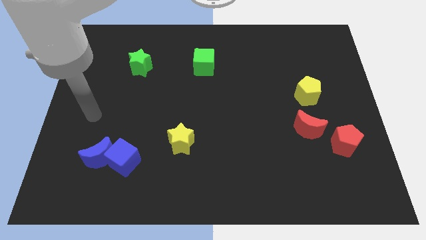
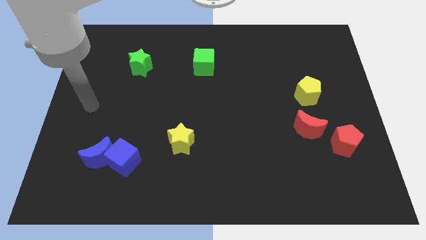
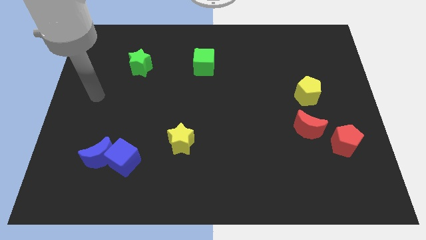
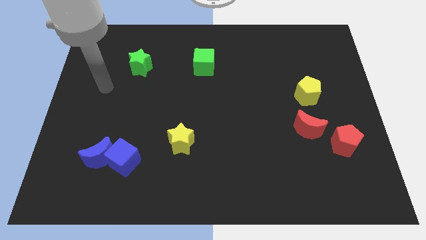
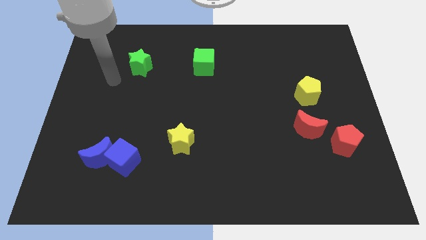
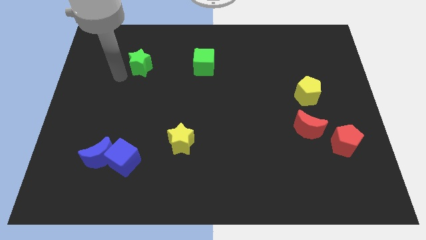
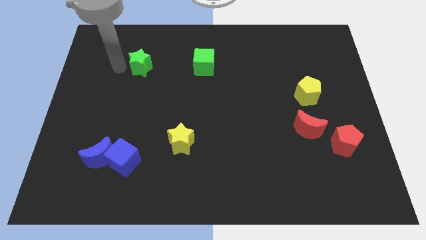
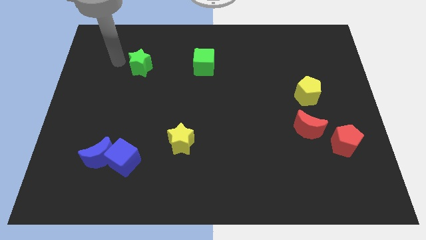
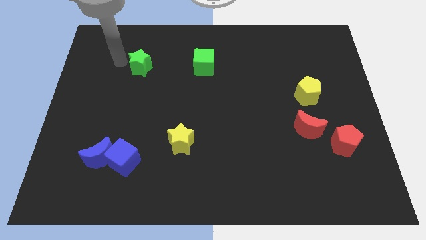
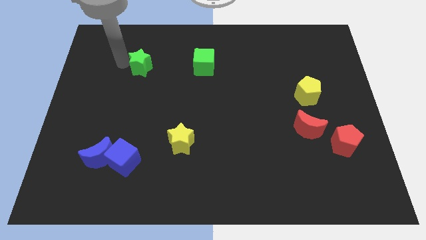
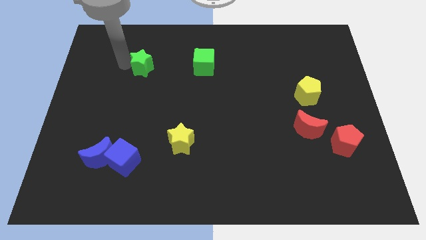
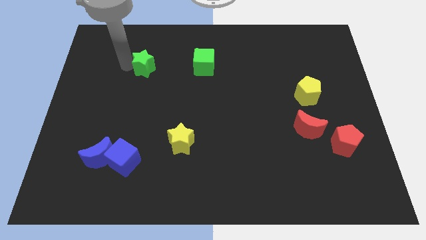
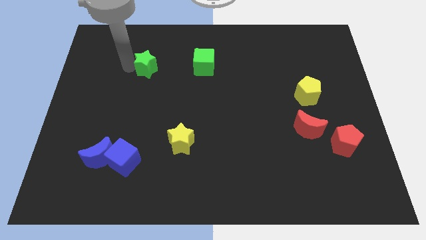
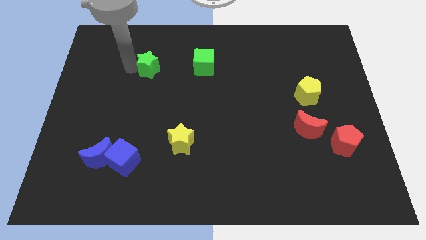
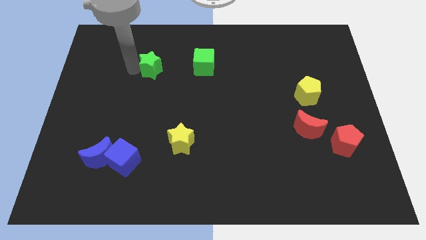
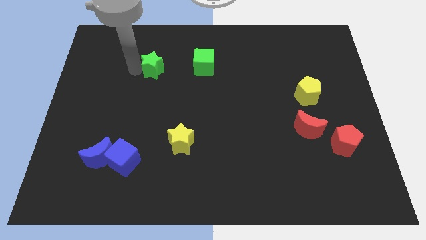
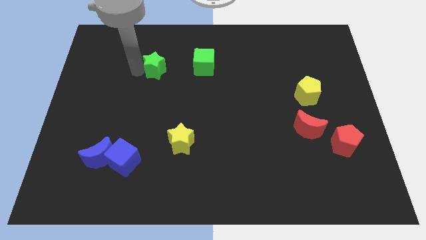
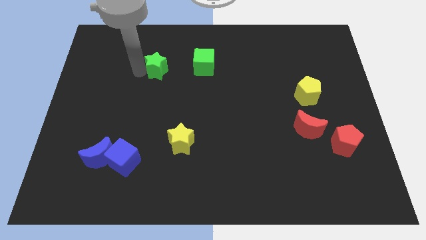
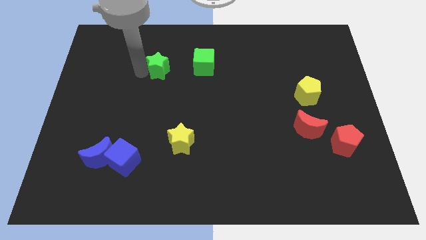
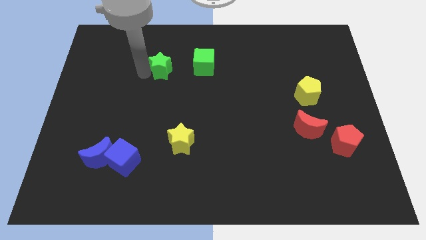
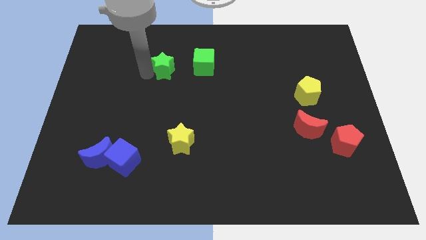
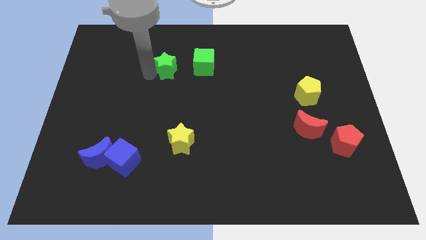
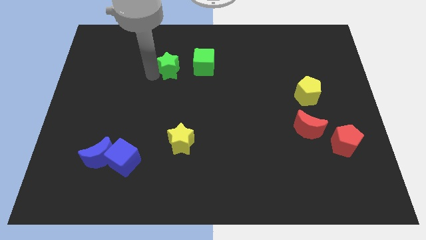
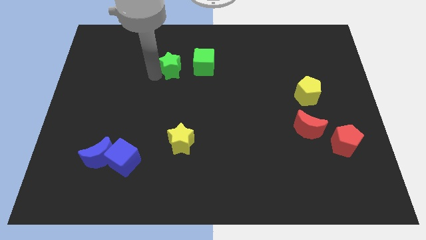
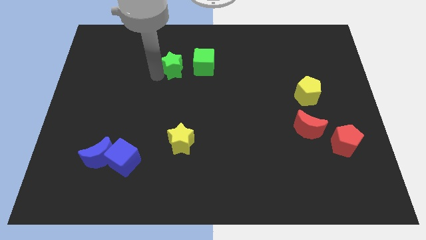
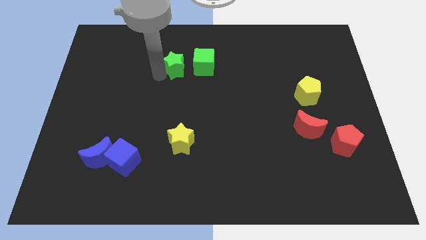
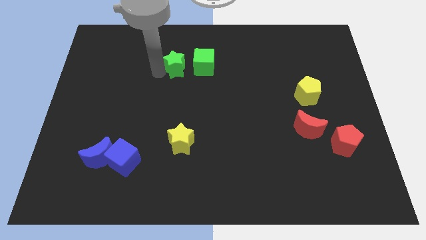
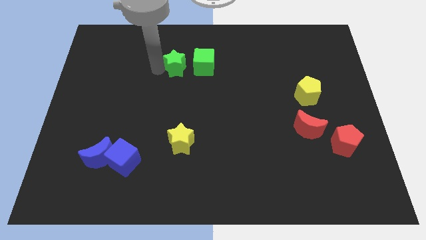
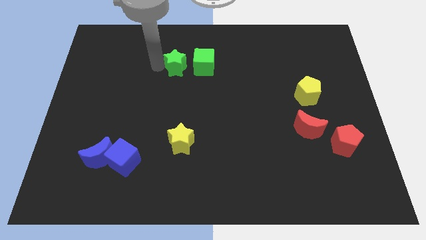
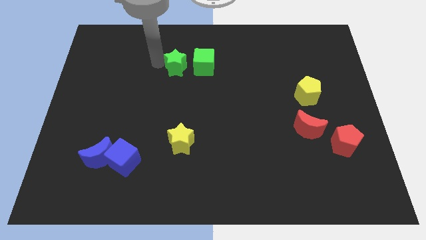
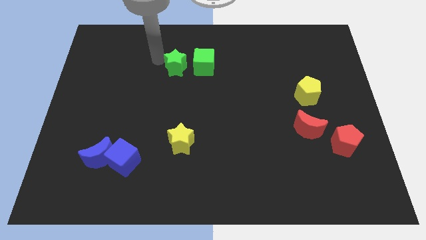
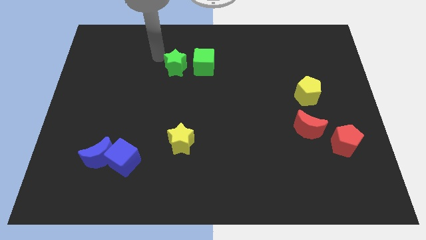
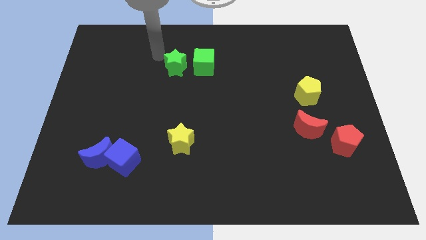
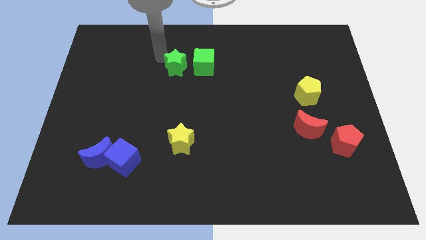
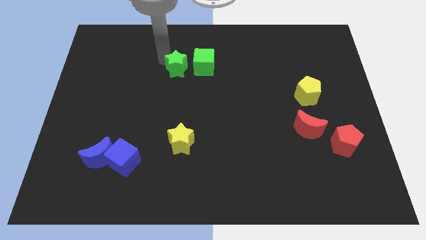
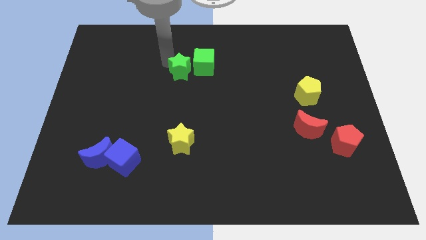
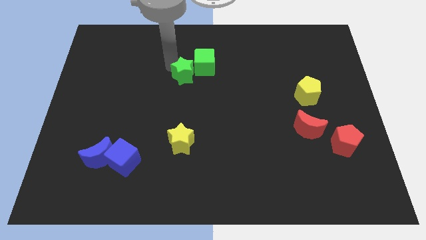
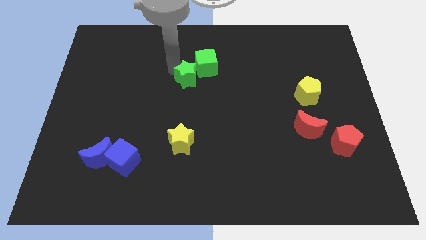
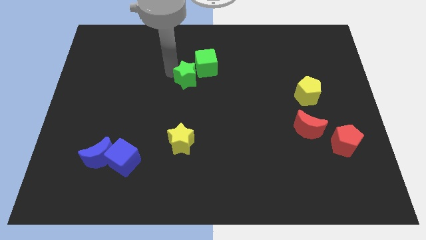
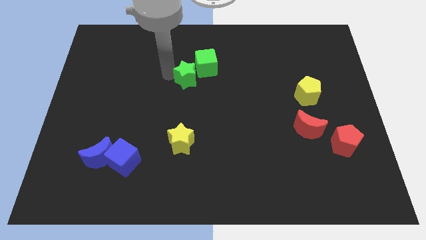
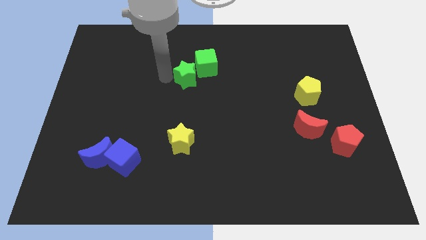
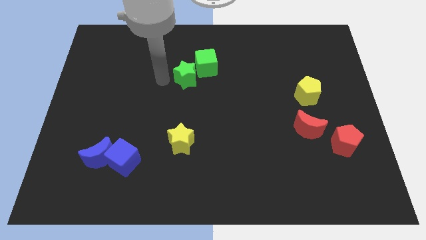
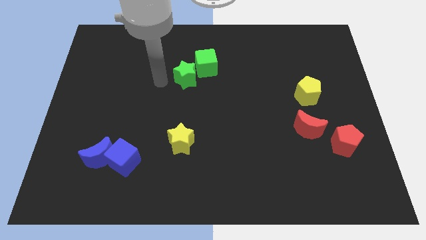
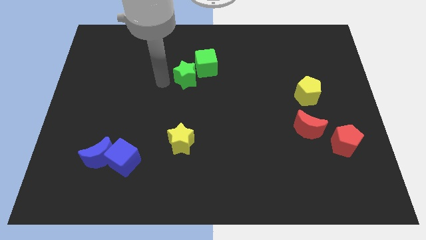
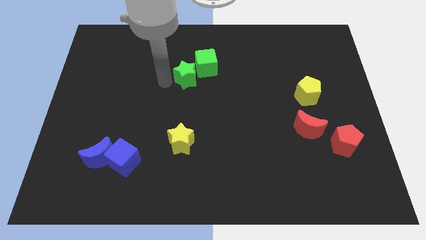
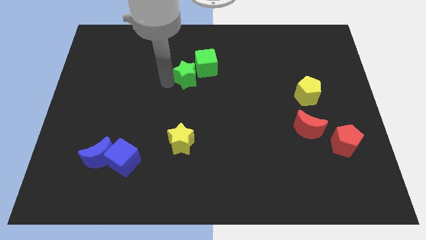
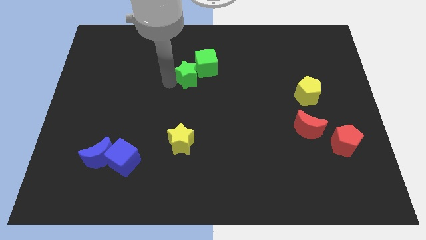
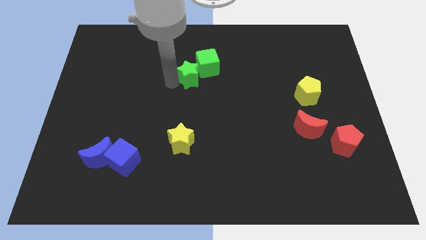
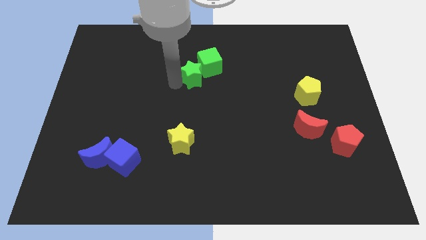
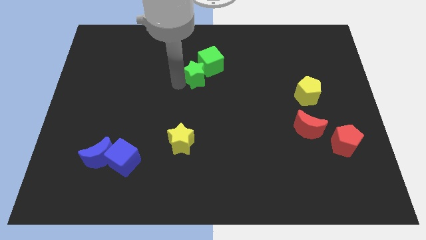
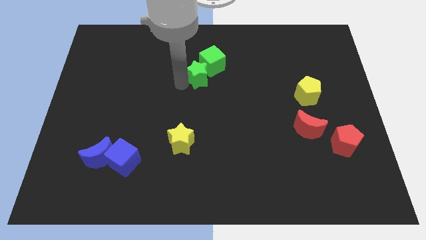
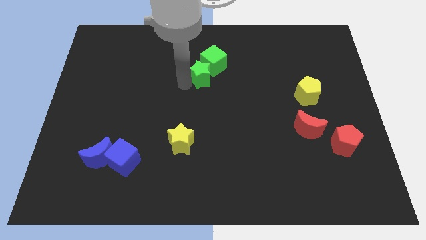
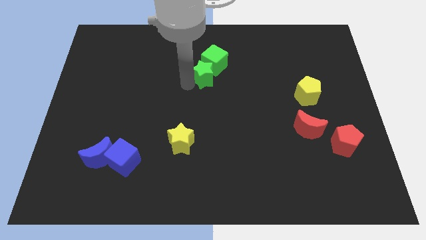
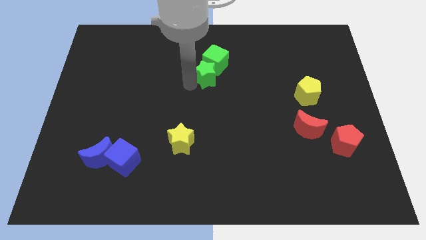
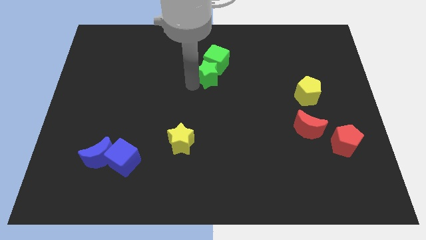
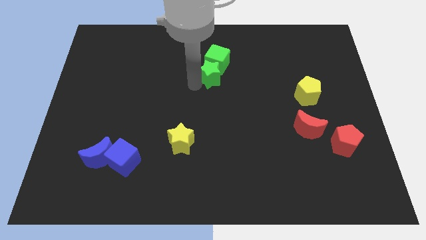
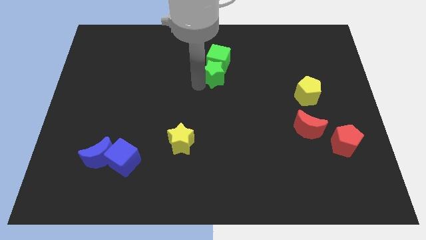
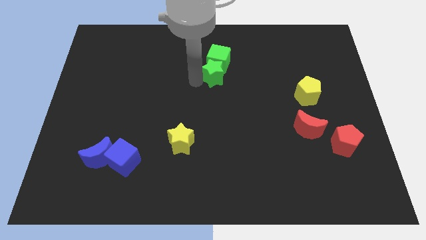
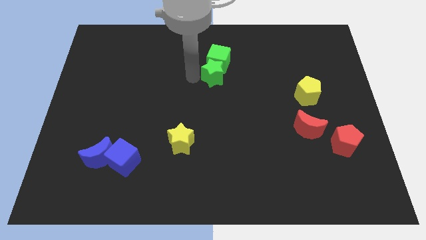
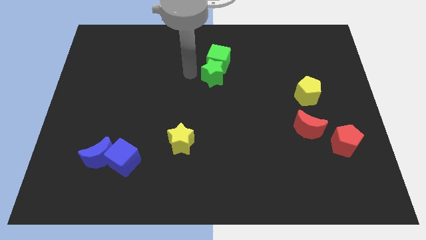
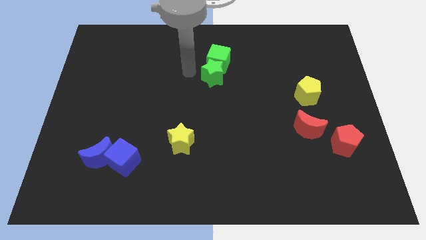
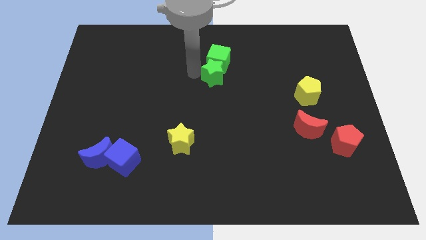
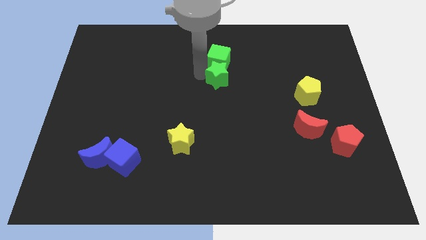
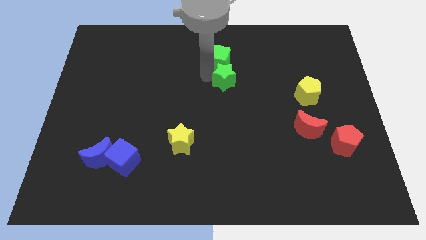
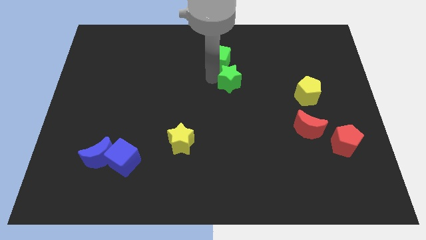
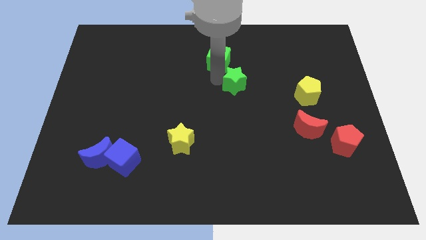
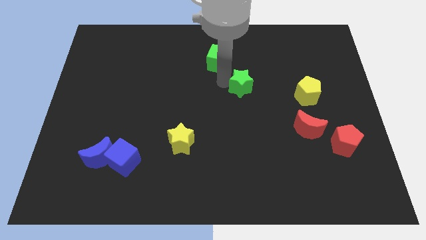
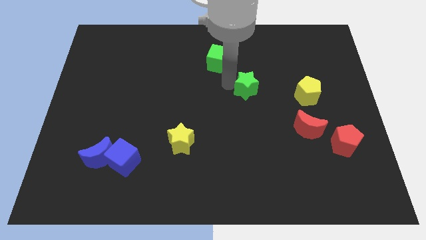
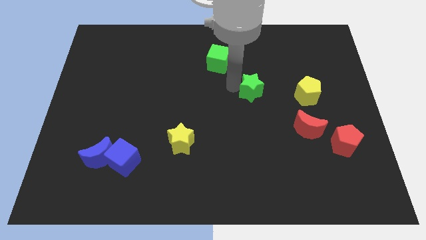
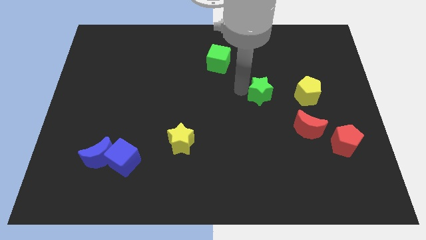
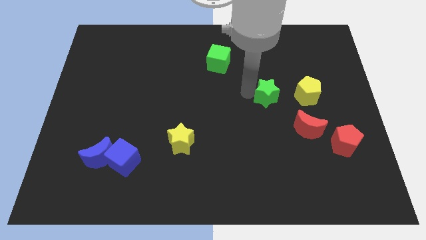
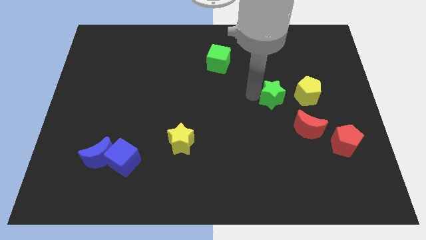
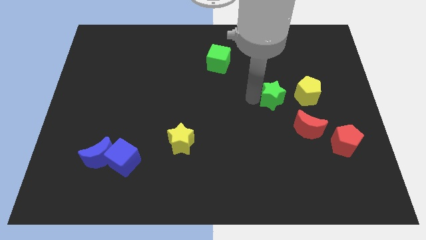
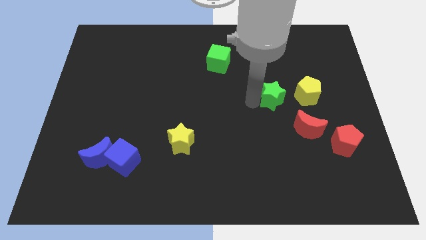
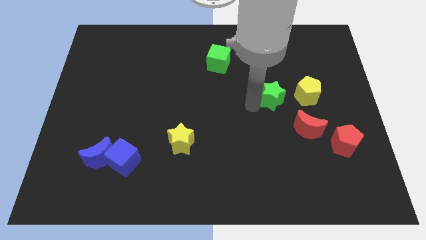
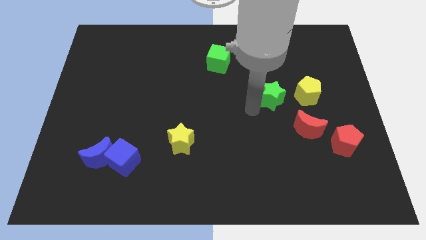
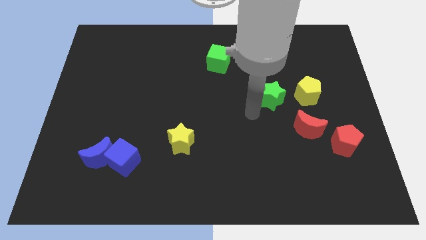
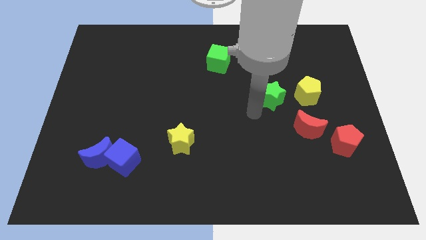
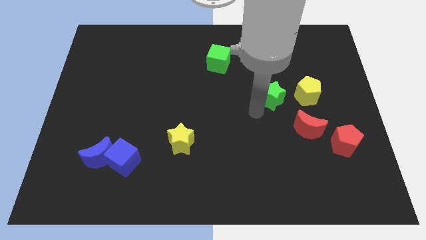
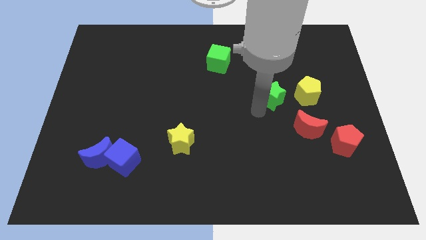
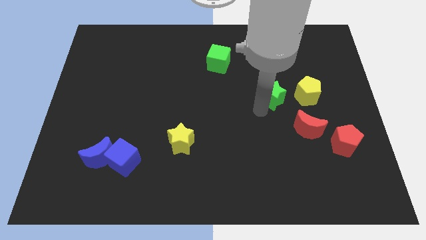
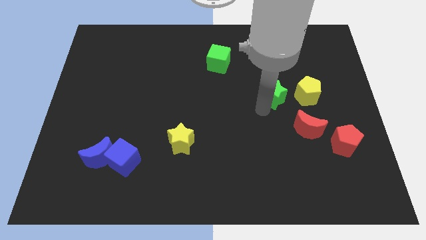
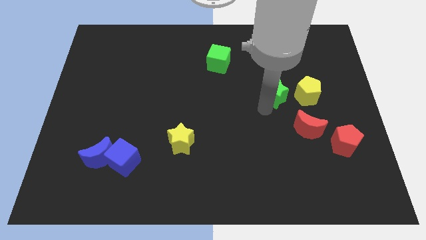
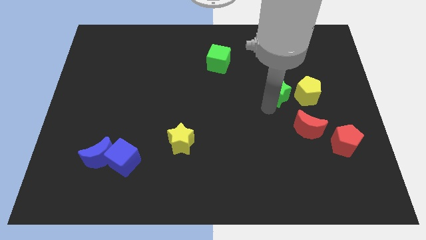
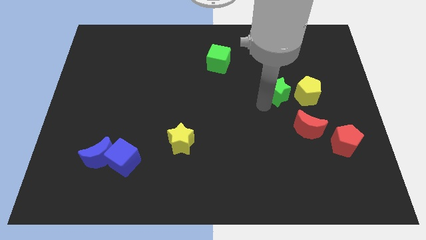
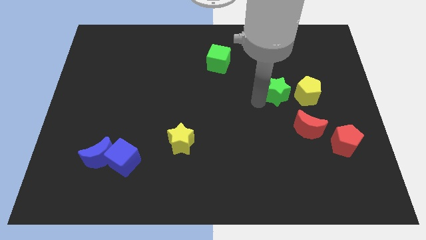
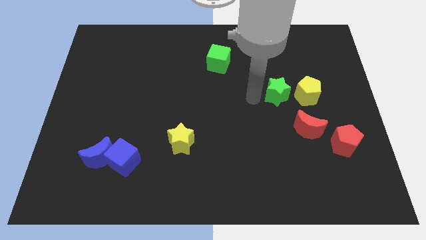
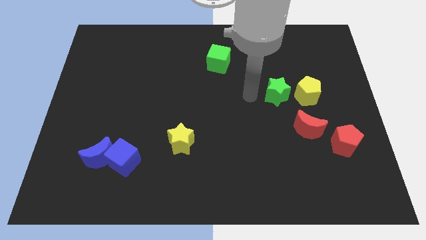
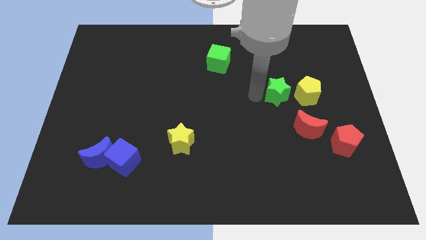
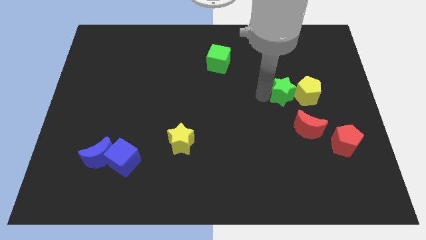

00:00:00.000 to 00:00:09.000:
move the green star next to the yellow pentagon
